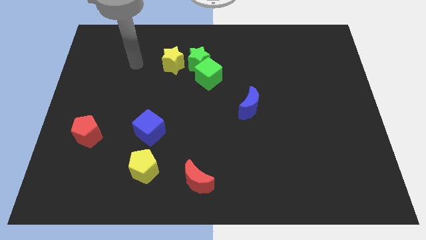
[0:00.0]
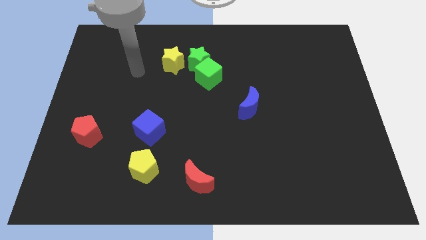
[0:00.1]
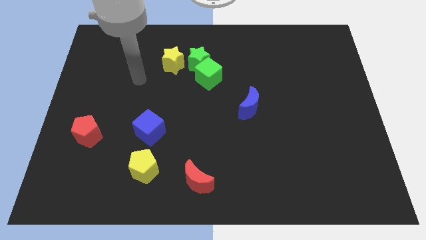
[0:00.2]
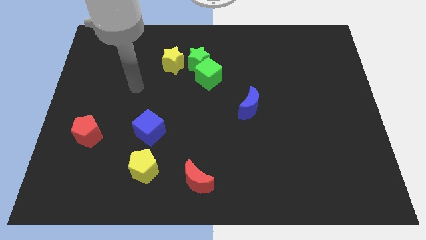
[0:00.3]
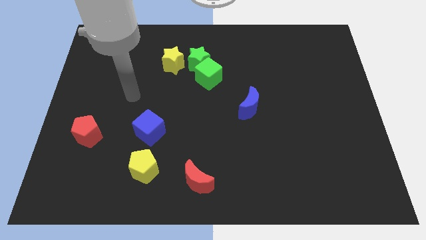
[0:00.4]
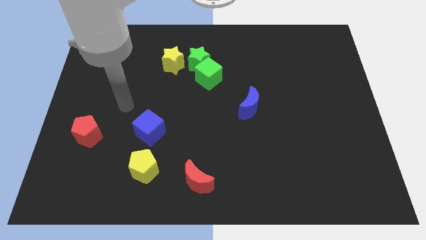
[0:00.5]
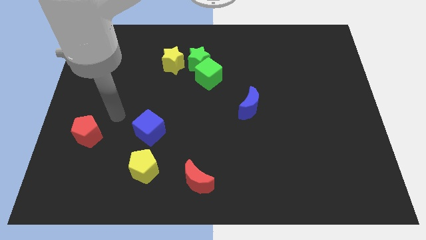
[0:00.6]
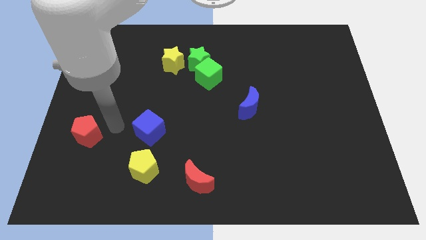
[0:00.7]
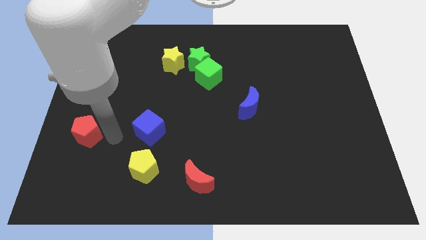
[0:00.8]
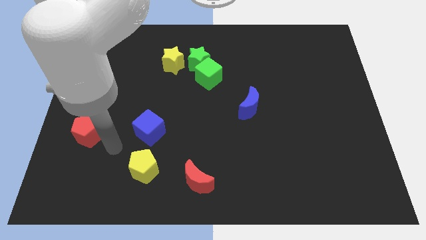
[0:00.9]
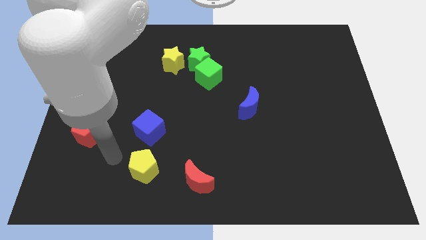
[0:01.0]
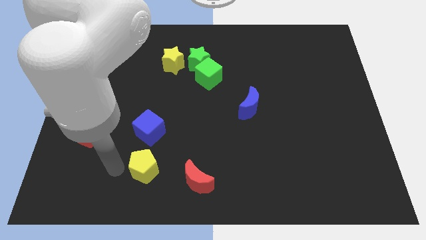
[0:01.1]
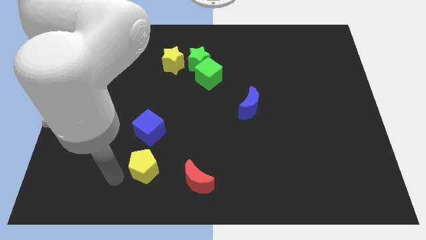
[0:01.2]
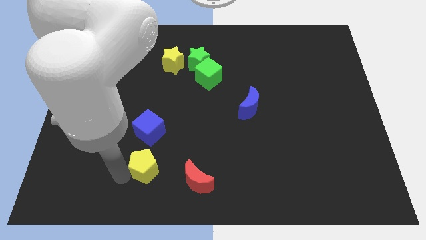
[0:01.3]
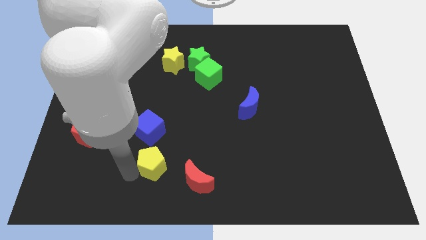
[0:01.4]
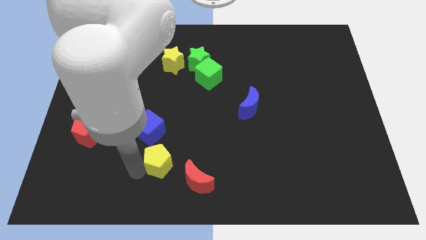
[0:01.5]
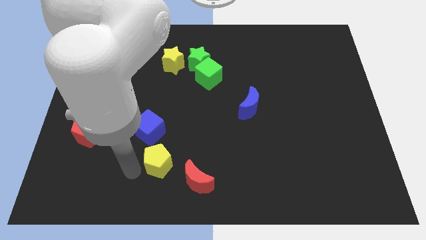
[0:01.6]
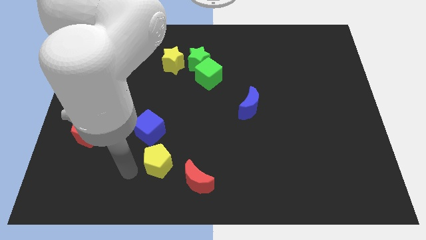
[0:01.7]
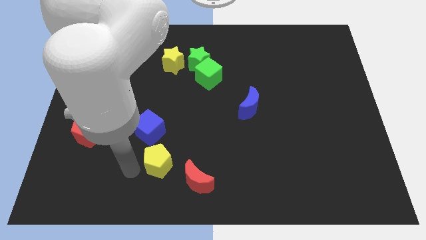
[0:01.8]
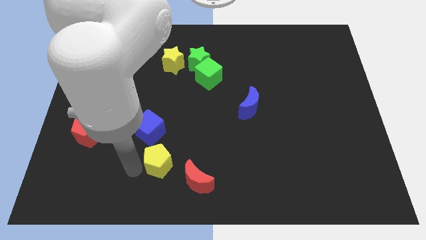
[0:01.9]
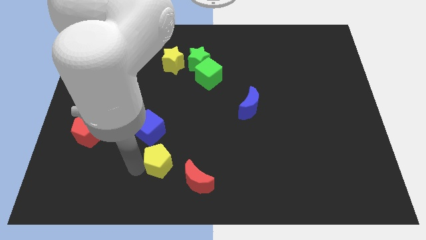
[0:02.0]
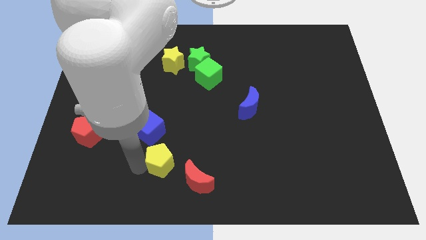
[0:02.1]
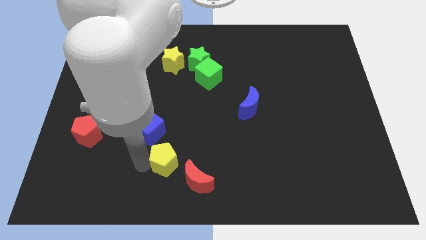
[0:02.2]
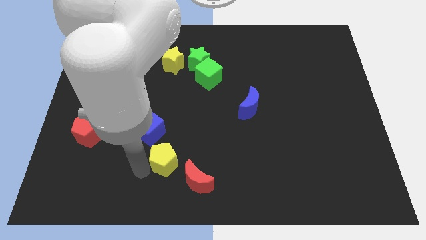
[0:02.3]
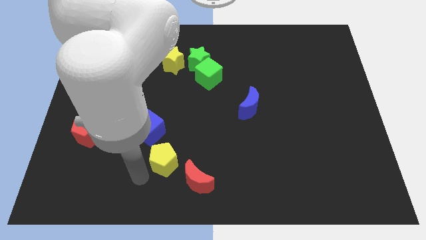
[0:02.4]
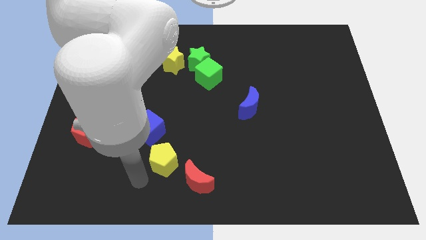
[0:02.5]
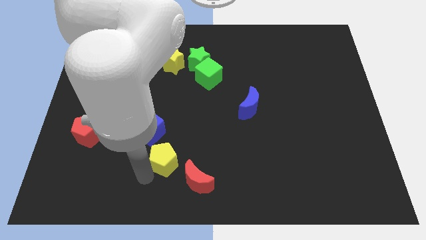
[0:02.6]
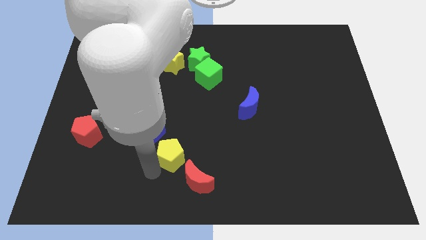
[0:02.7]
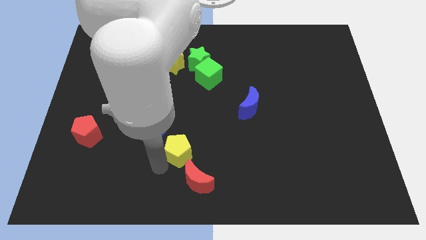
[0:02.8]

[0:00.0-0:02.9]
slide the yellow pentagon slightly diagonally upwards and to the right

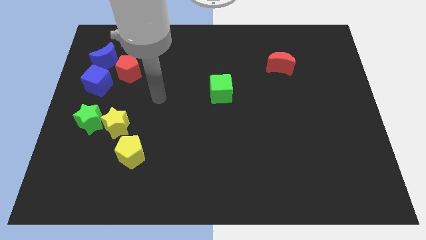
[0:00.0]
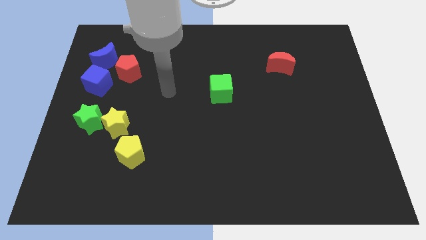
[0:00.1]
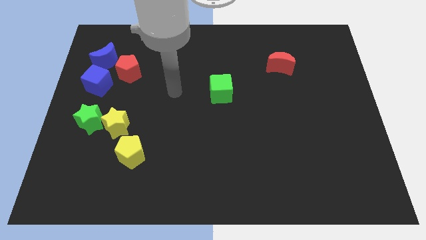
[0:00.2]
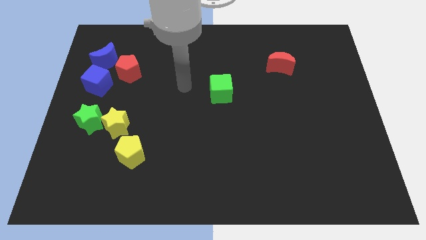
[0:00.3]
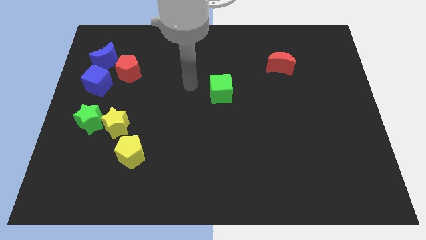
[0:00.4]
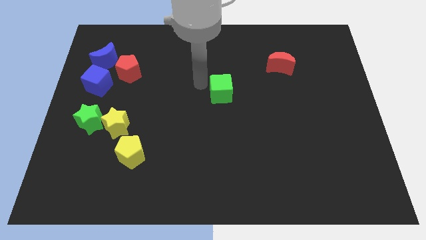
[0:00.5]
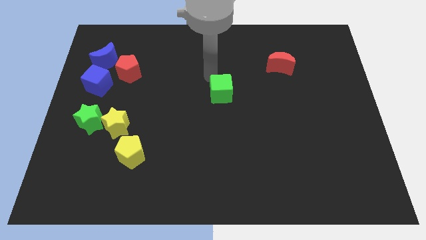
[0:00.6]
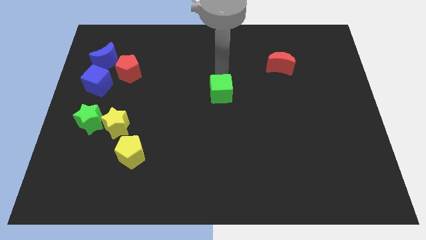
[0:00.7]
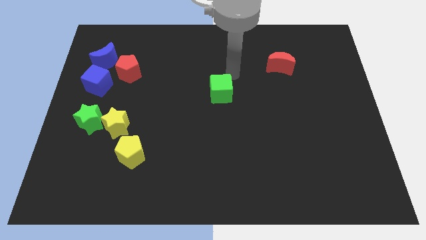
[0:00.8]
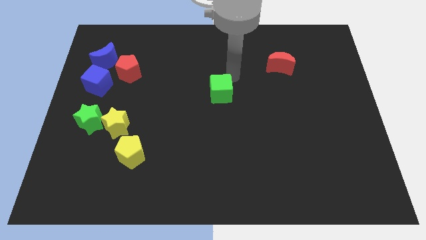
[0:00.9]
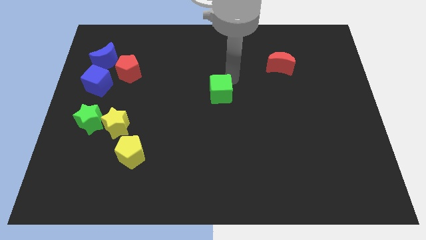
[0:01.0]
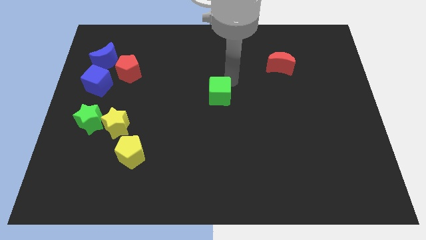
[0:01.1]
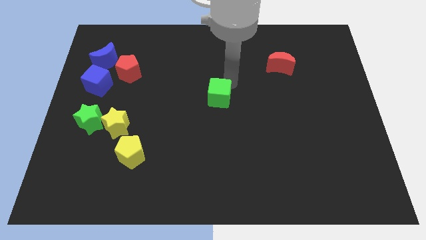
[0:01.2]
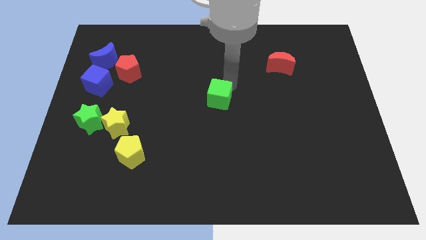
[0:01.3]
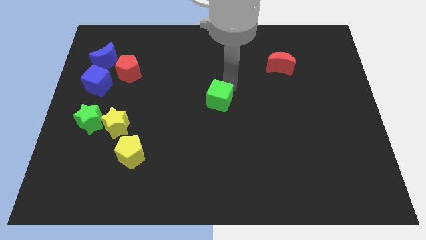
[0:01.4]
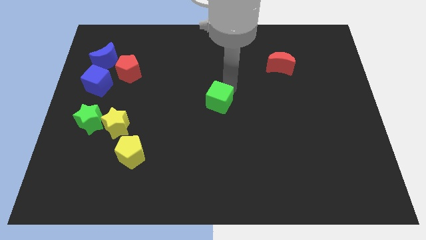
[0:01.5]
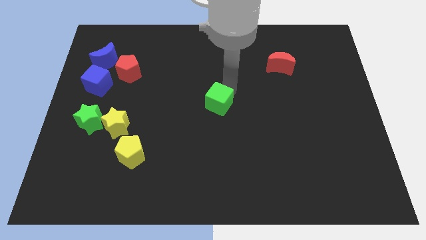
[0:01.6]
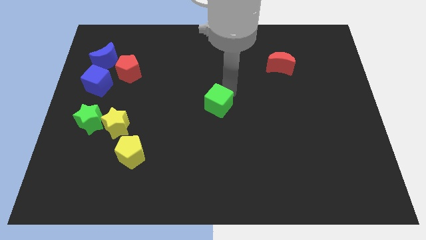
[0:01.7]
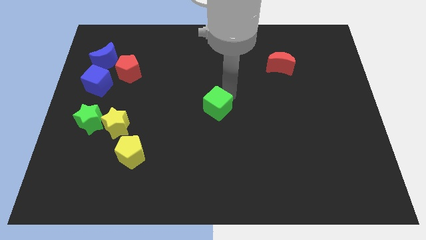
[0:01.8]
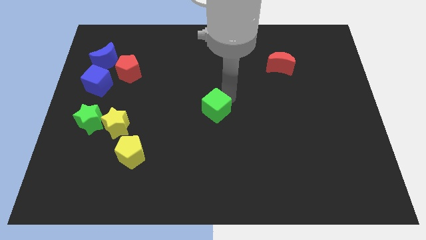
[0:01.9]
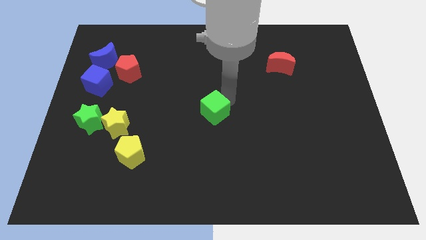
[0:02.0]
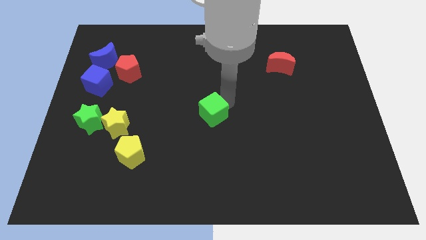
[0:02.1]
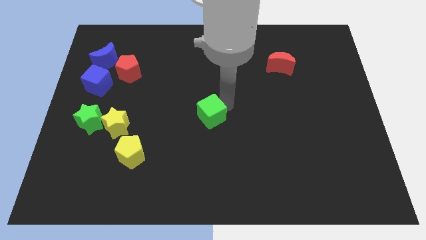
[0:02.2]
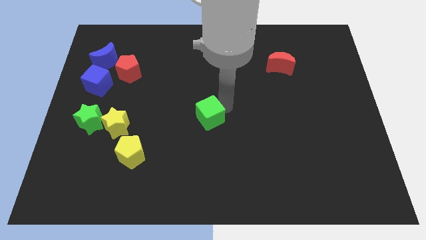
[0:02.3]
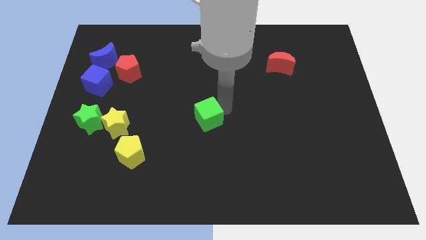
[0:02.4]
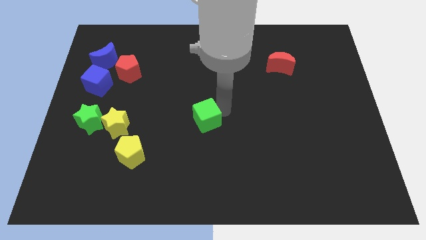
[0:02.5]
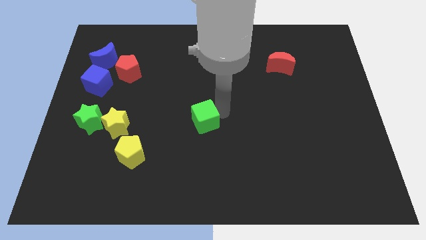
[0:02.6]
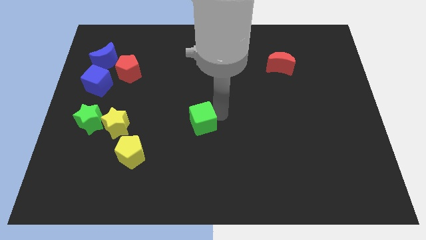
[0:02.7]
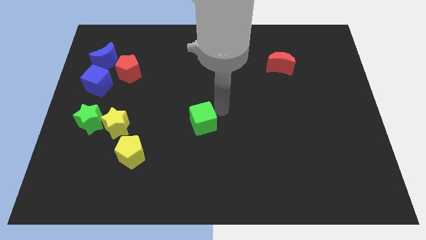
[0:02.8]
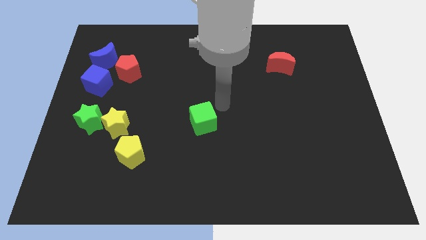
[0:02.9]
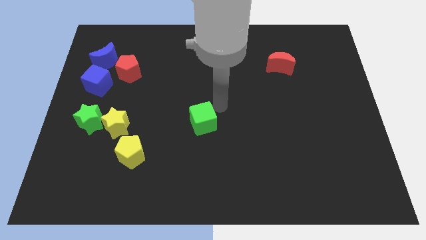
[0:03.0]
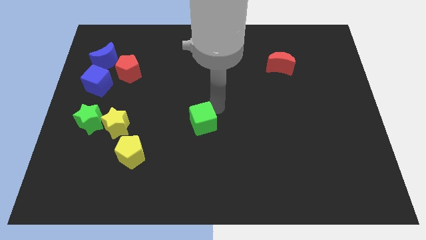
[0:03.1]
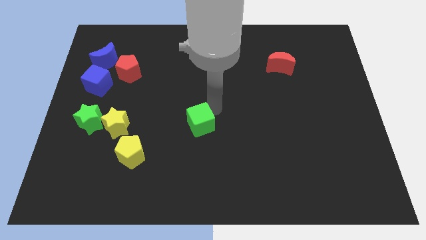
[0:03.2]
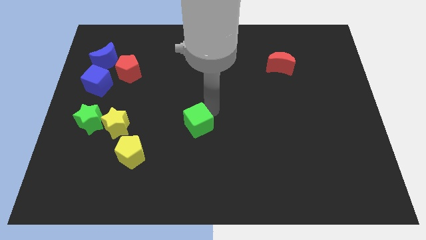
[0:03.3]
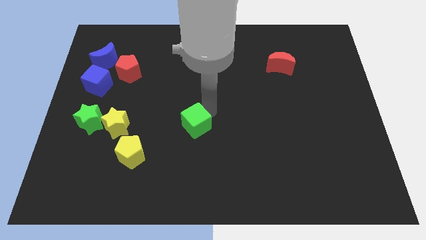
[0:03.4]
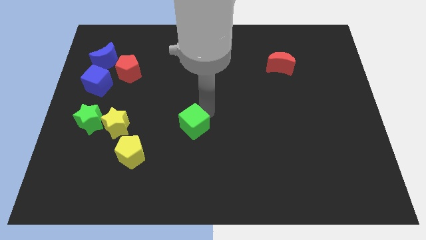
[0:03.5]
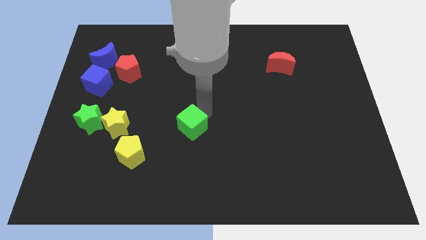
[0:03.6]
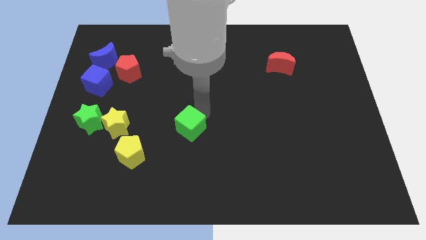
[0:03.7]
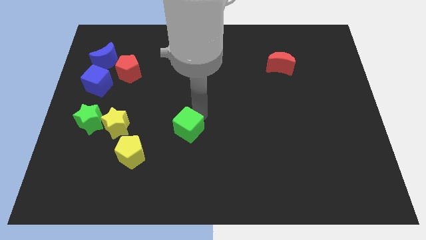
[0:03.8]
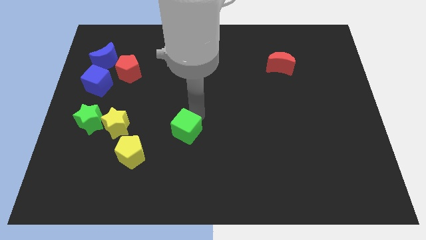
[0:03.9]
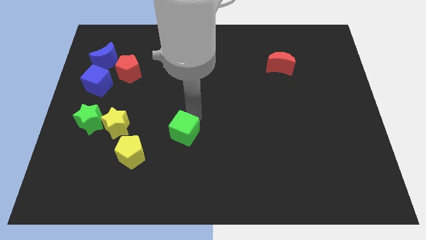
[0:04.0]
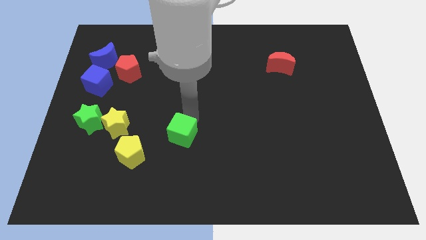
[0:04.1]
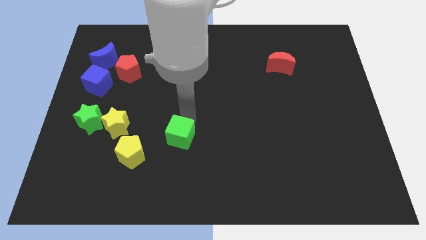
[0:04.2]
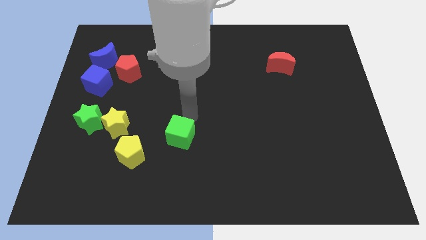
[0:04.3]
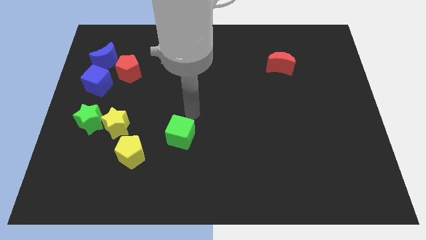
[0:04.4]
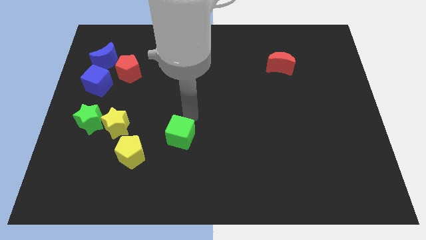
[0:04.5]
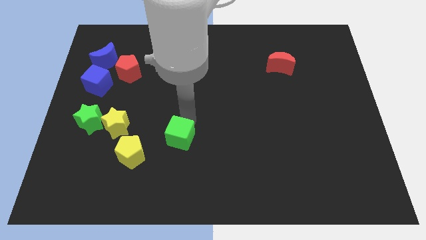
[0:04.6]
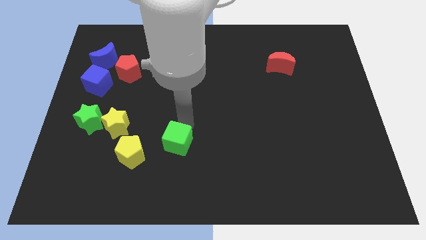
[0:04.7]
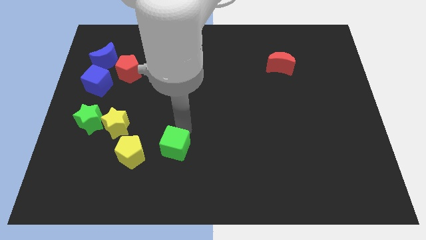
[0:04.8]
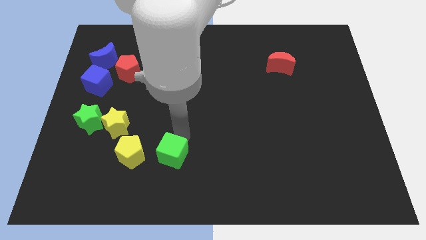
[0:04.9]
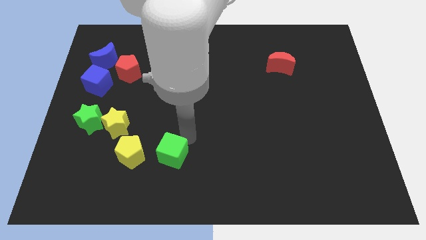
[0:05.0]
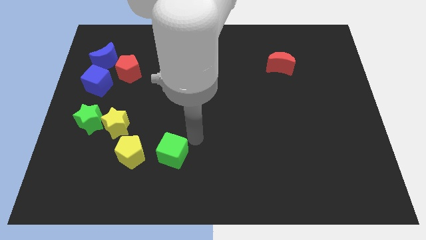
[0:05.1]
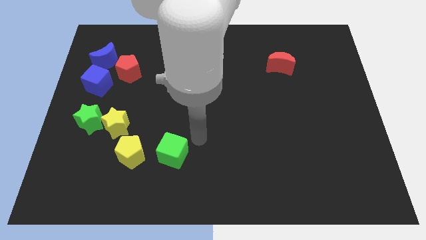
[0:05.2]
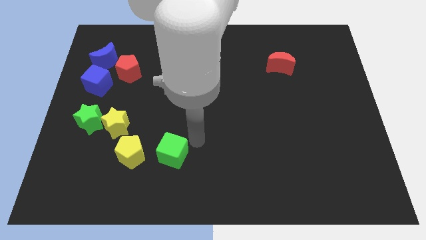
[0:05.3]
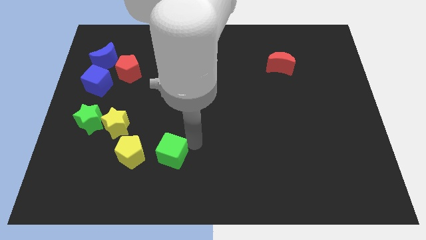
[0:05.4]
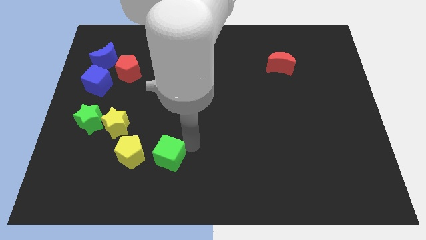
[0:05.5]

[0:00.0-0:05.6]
push the green cube downwards and left
